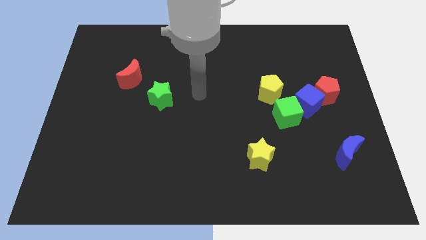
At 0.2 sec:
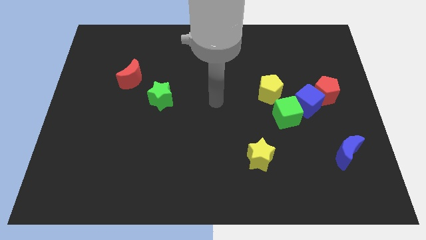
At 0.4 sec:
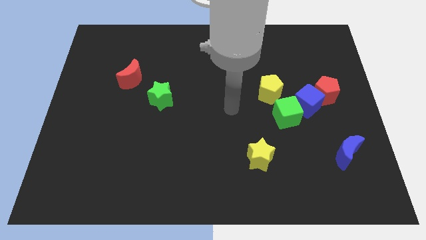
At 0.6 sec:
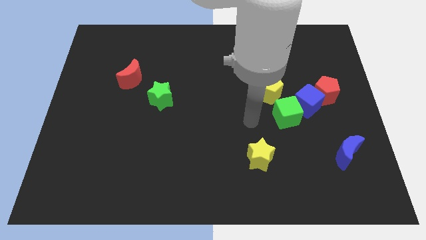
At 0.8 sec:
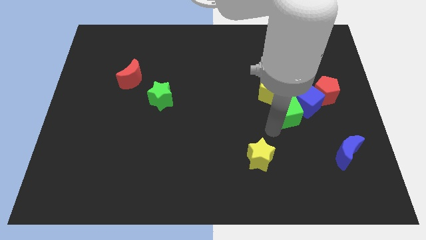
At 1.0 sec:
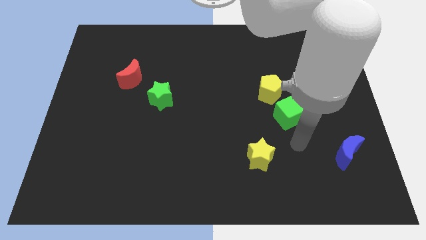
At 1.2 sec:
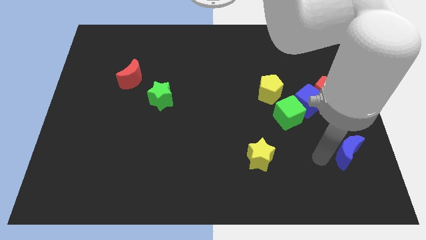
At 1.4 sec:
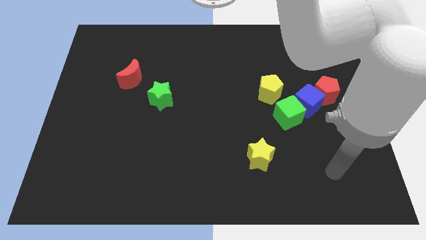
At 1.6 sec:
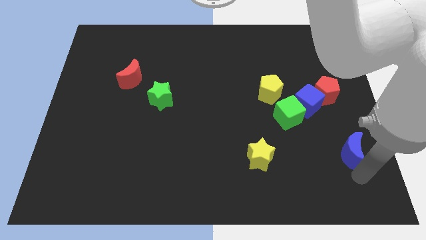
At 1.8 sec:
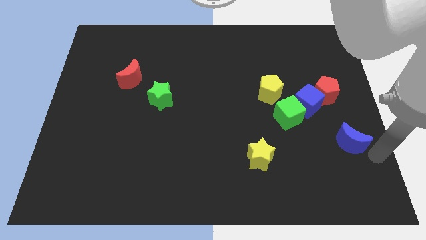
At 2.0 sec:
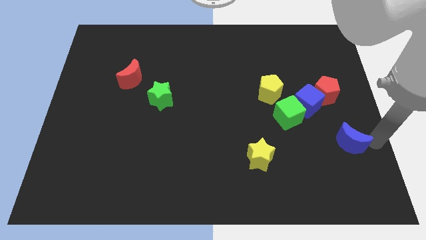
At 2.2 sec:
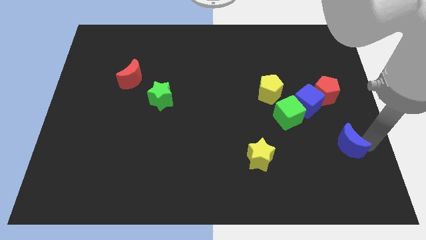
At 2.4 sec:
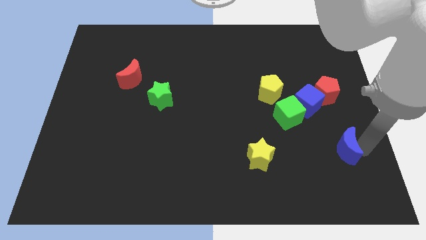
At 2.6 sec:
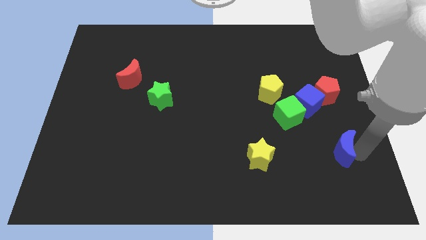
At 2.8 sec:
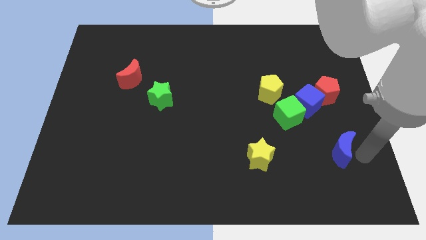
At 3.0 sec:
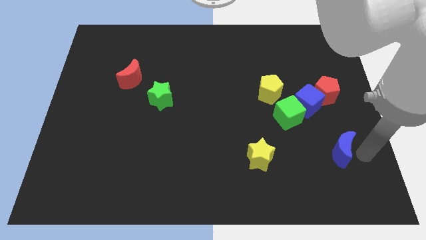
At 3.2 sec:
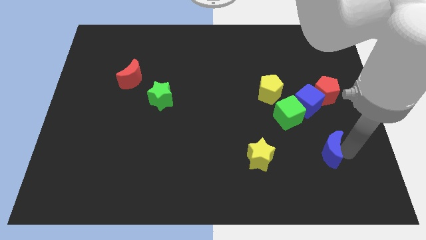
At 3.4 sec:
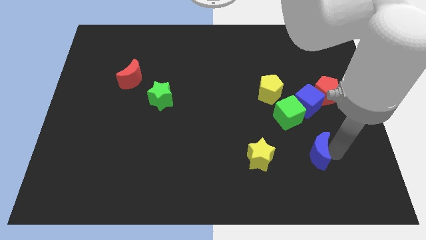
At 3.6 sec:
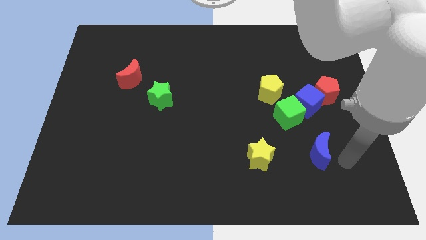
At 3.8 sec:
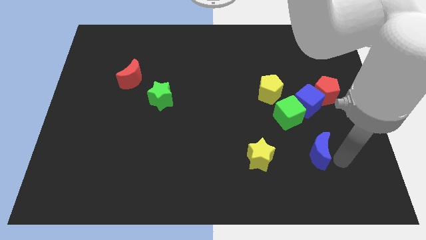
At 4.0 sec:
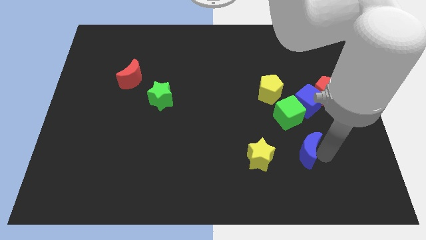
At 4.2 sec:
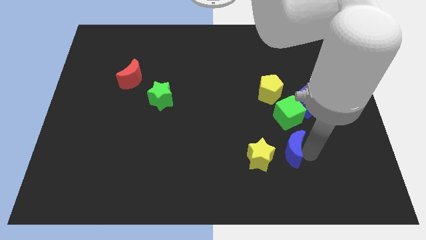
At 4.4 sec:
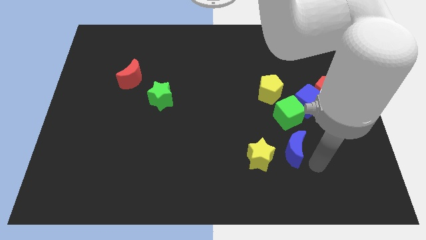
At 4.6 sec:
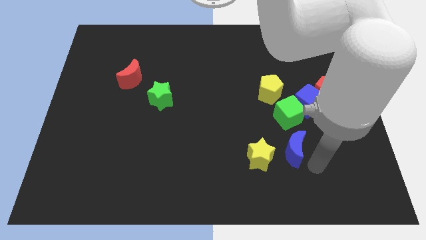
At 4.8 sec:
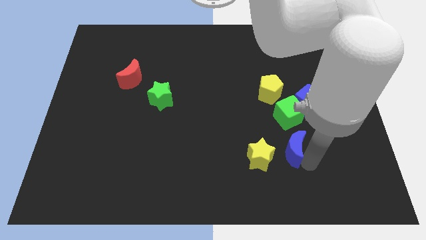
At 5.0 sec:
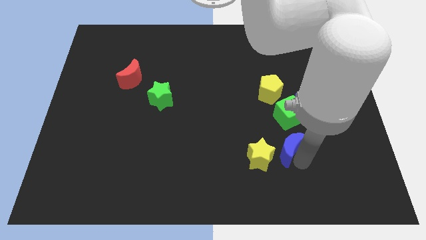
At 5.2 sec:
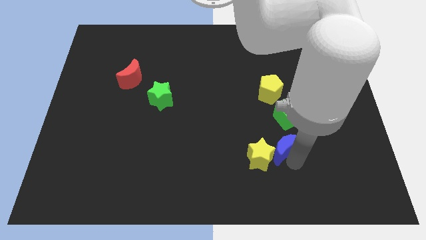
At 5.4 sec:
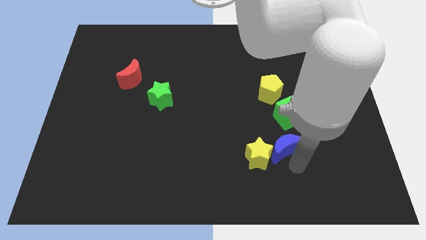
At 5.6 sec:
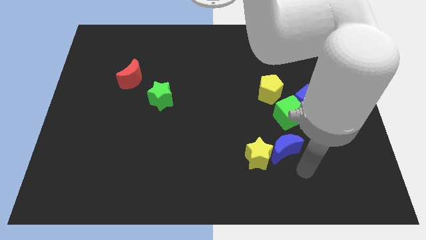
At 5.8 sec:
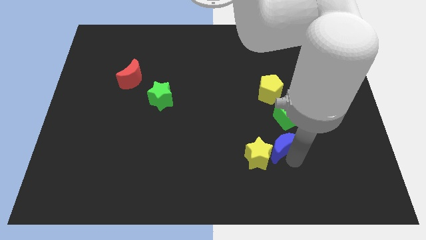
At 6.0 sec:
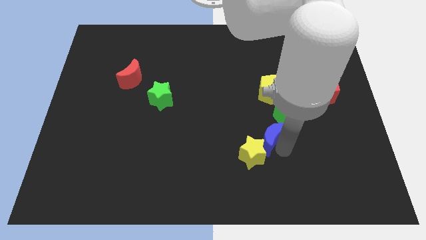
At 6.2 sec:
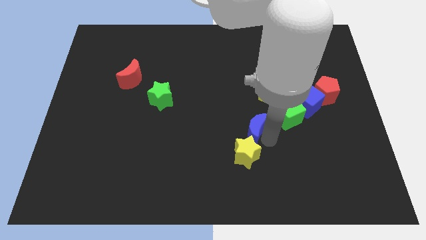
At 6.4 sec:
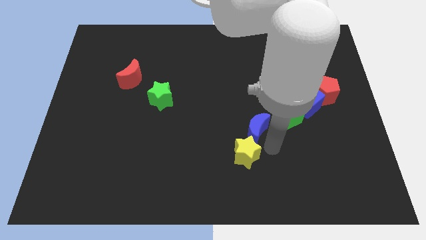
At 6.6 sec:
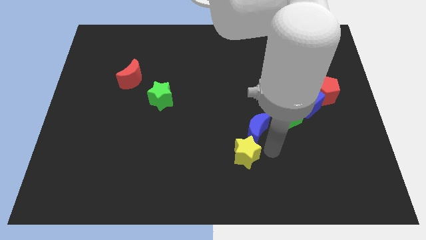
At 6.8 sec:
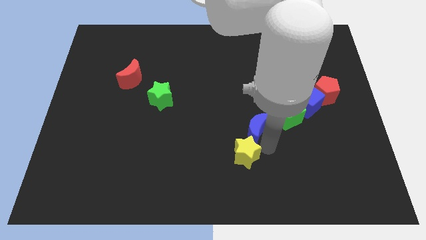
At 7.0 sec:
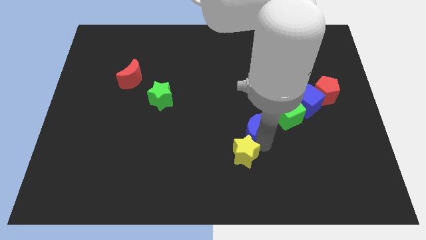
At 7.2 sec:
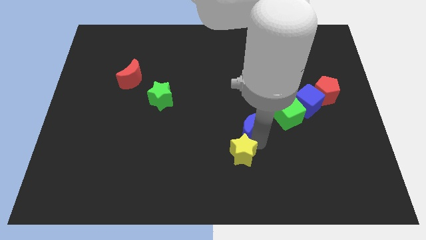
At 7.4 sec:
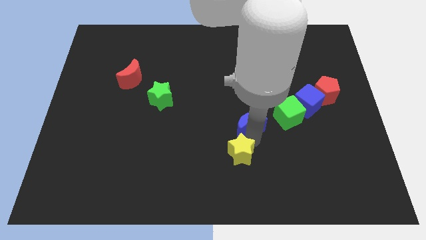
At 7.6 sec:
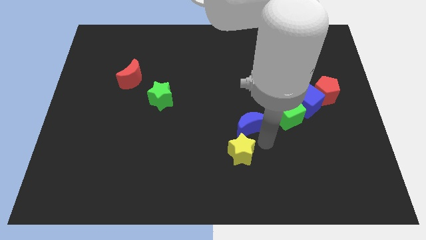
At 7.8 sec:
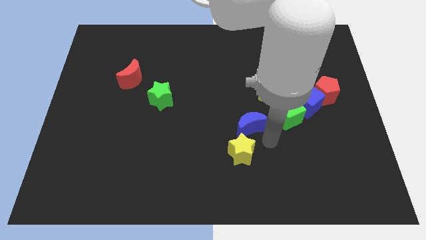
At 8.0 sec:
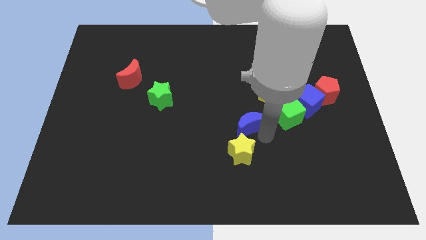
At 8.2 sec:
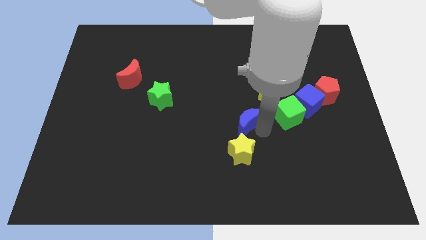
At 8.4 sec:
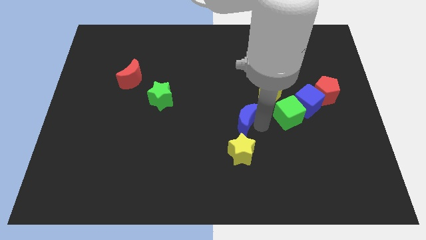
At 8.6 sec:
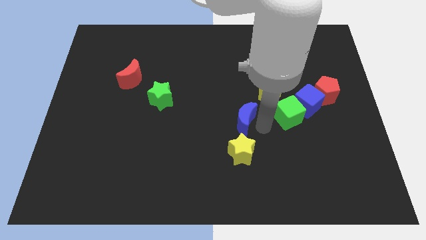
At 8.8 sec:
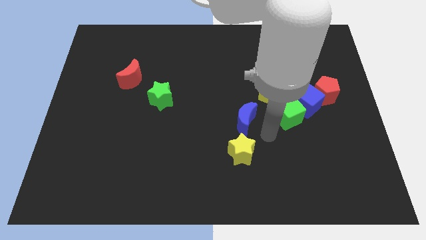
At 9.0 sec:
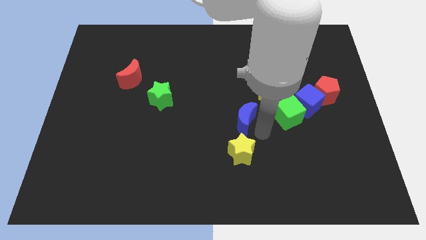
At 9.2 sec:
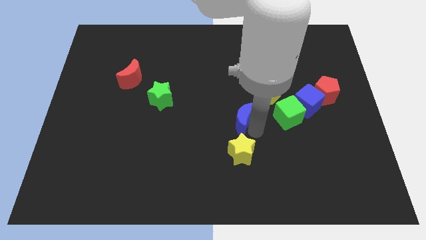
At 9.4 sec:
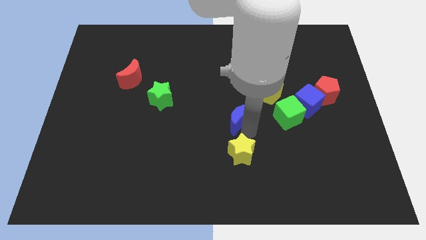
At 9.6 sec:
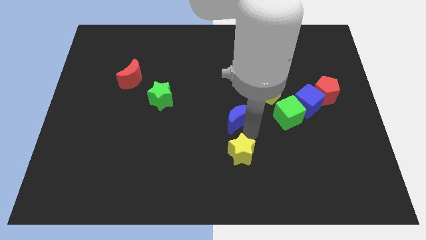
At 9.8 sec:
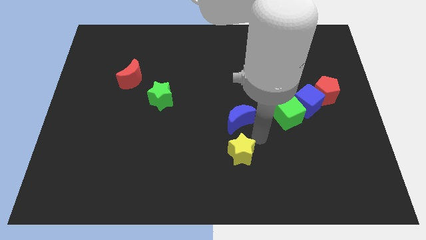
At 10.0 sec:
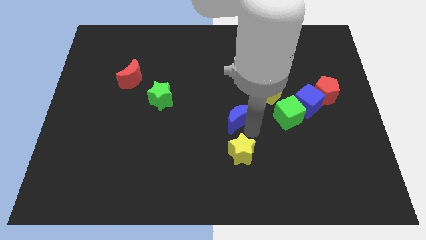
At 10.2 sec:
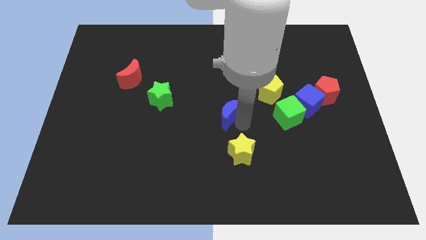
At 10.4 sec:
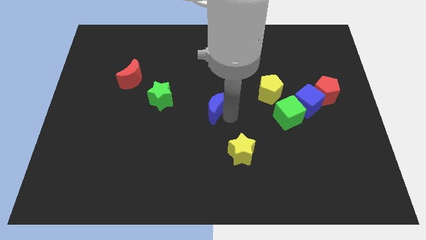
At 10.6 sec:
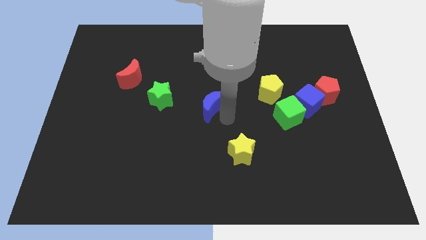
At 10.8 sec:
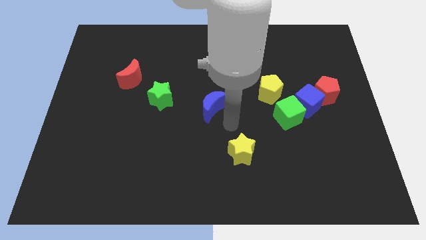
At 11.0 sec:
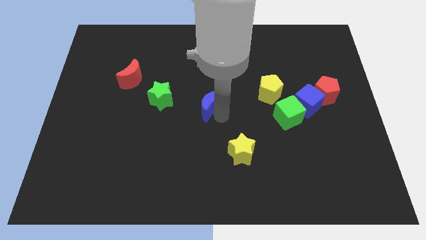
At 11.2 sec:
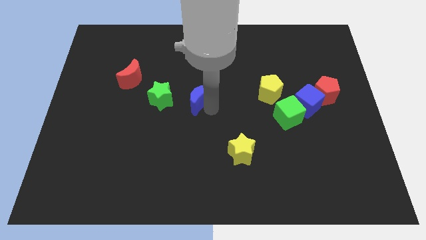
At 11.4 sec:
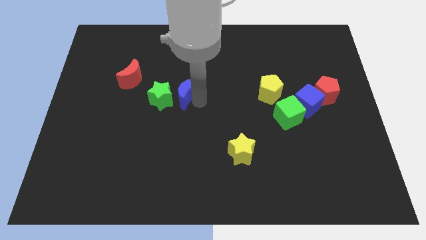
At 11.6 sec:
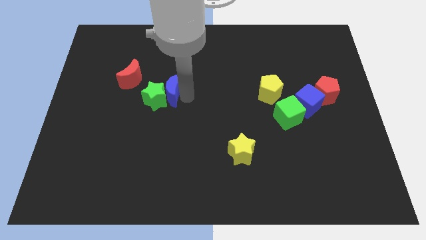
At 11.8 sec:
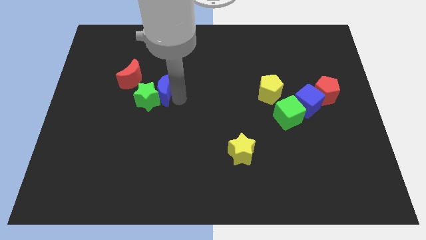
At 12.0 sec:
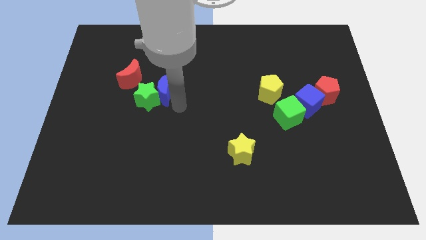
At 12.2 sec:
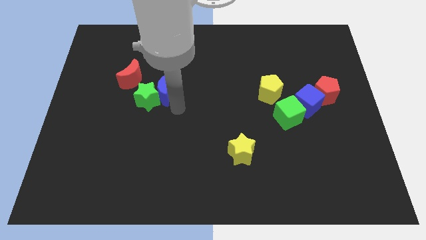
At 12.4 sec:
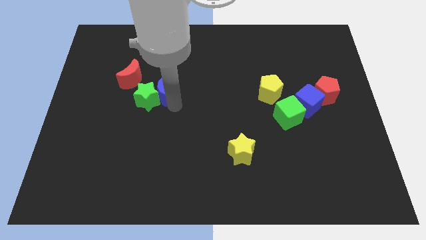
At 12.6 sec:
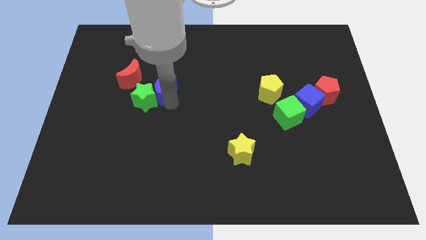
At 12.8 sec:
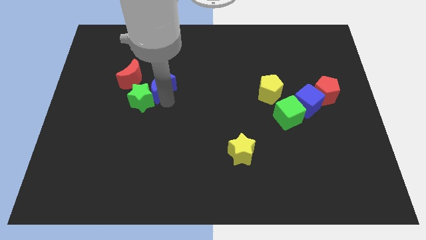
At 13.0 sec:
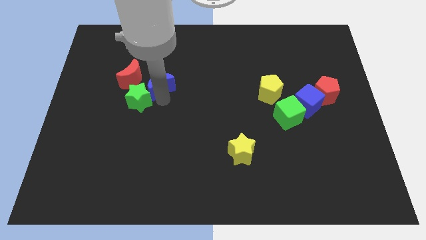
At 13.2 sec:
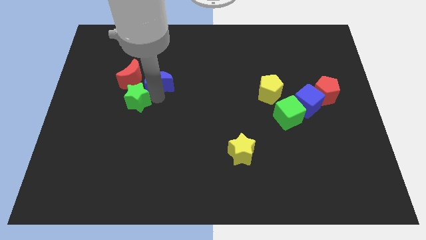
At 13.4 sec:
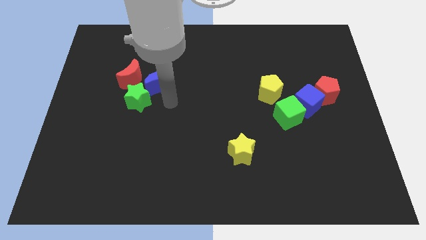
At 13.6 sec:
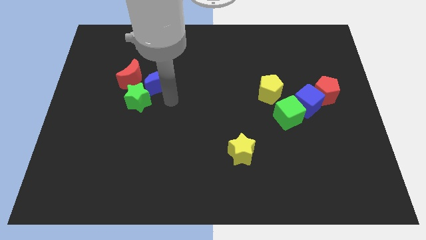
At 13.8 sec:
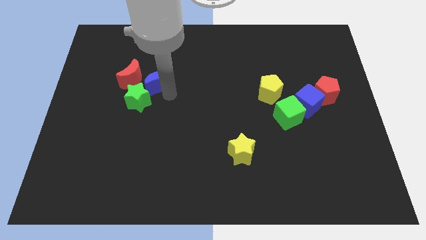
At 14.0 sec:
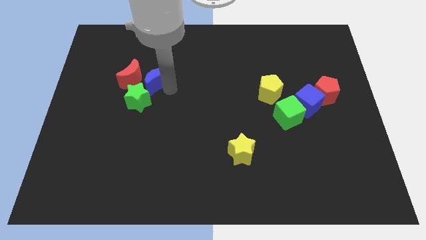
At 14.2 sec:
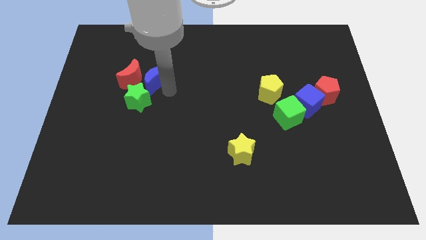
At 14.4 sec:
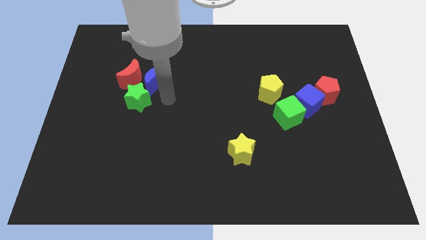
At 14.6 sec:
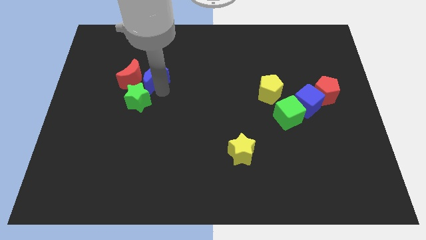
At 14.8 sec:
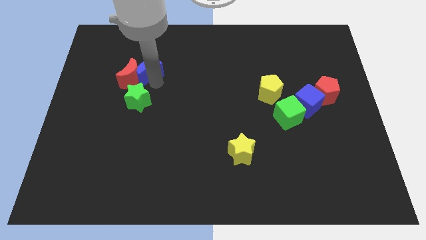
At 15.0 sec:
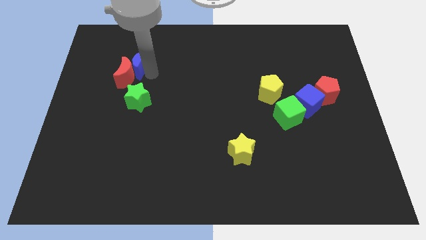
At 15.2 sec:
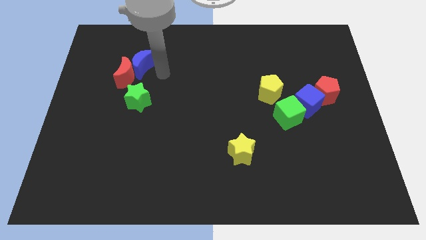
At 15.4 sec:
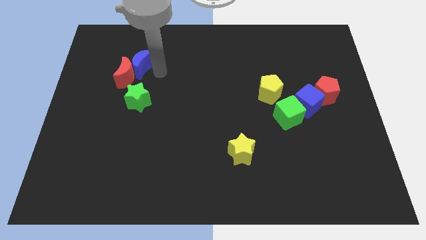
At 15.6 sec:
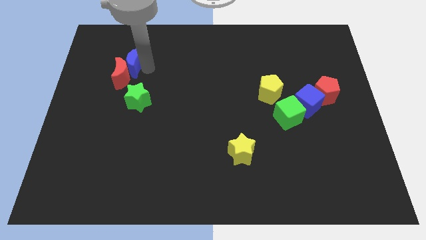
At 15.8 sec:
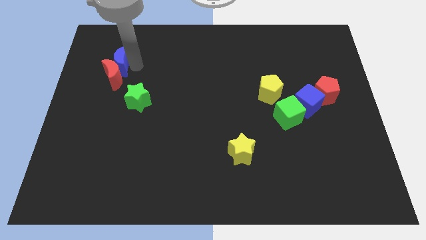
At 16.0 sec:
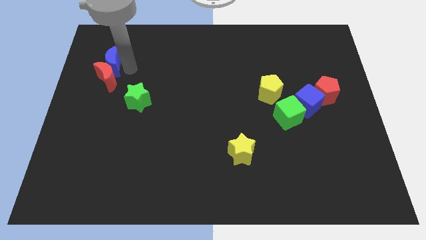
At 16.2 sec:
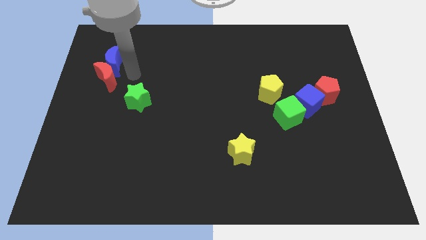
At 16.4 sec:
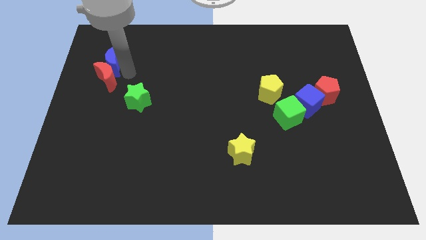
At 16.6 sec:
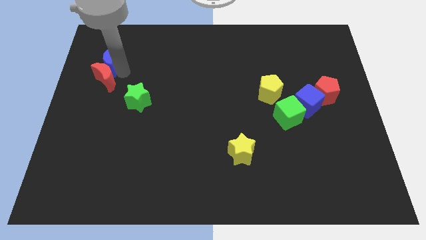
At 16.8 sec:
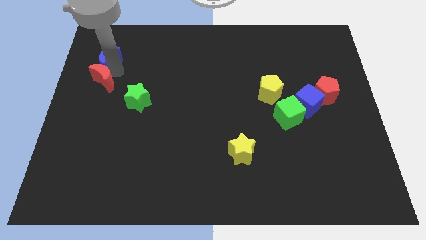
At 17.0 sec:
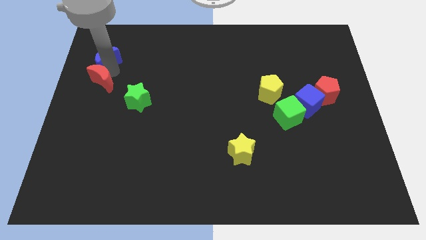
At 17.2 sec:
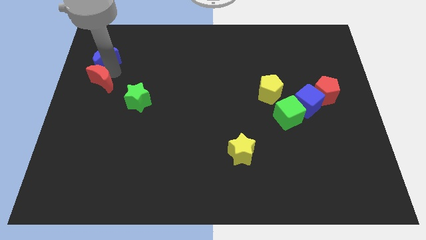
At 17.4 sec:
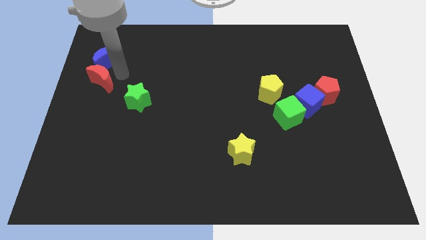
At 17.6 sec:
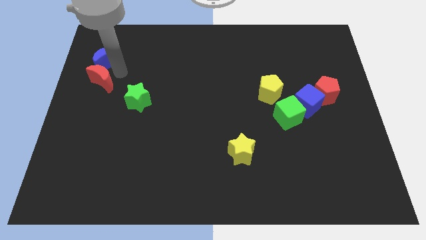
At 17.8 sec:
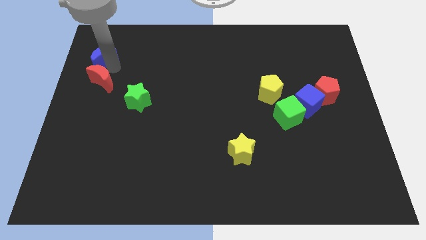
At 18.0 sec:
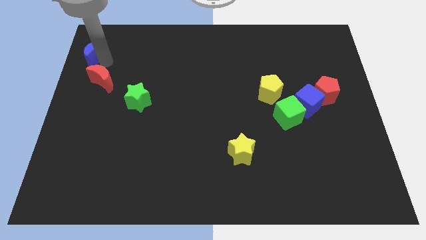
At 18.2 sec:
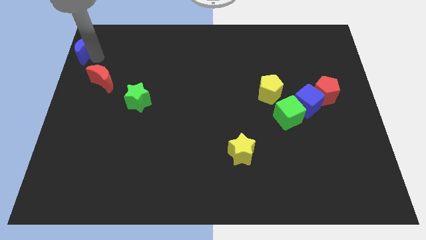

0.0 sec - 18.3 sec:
slide the blue moon to the top left
